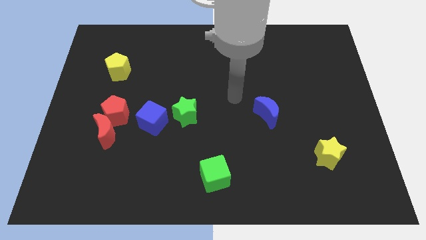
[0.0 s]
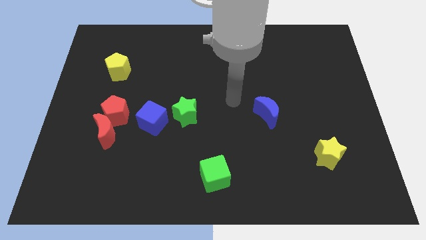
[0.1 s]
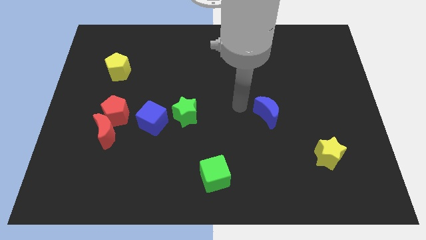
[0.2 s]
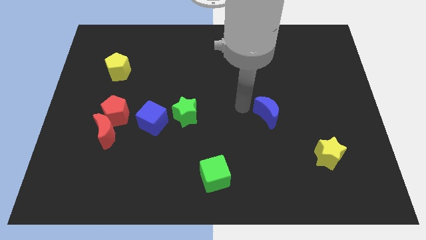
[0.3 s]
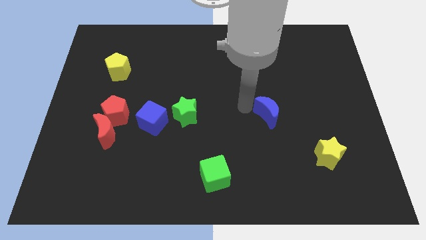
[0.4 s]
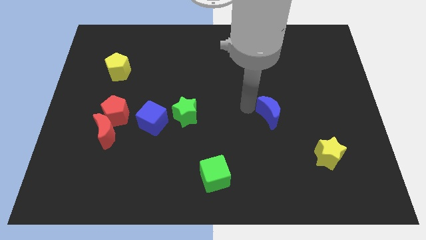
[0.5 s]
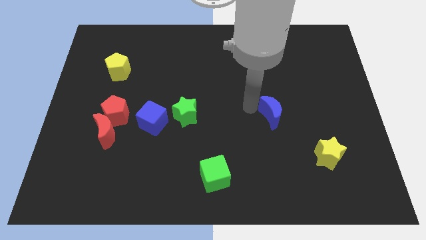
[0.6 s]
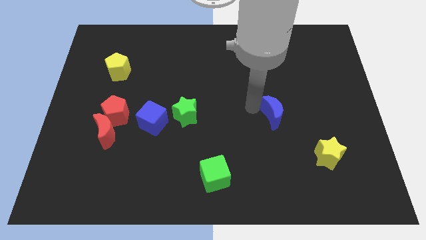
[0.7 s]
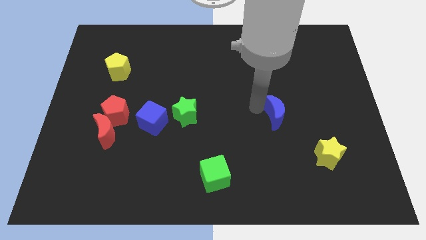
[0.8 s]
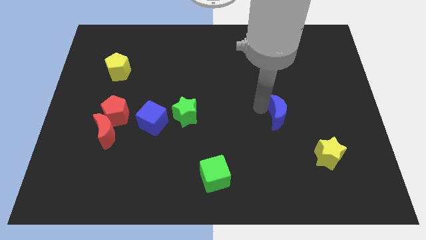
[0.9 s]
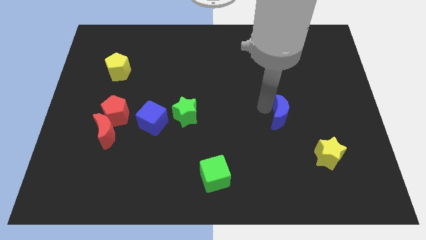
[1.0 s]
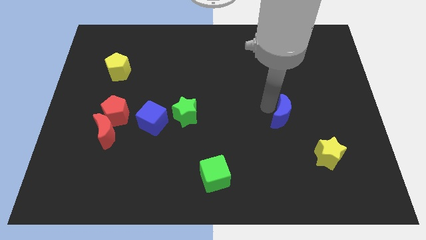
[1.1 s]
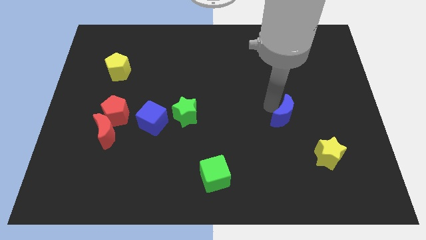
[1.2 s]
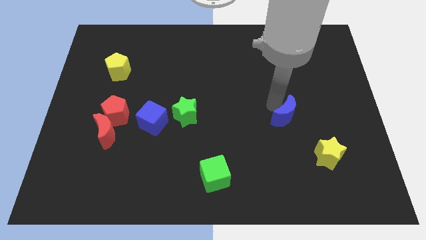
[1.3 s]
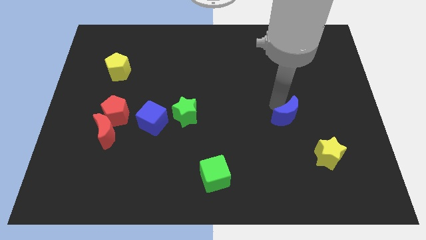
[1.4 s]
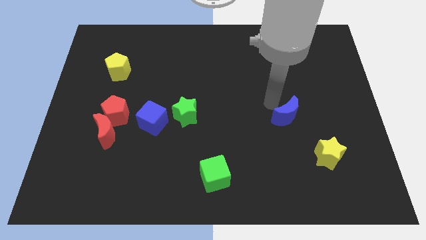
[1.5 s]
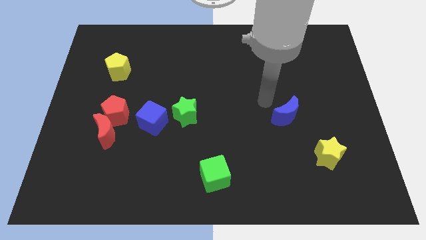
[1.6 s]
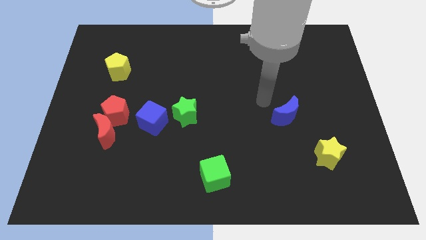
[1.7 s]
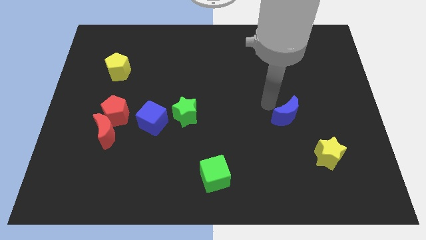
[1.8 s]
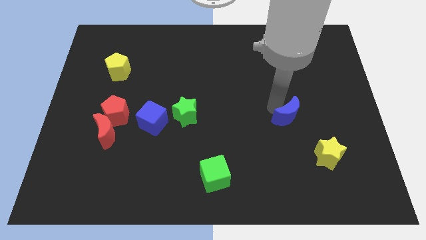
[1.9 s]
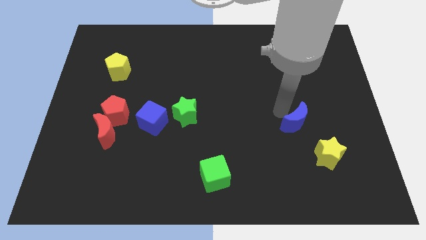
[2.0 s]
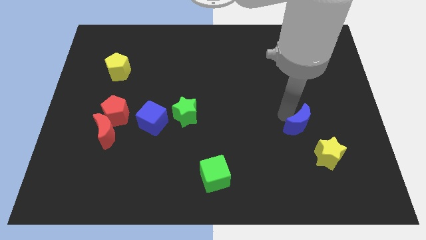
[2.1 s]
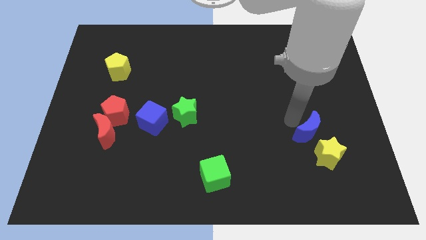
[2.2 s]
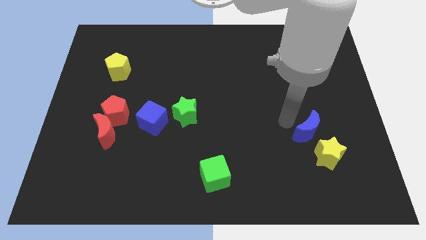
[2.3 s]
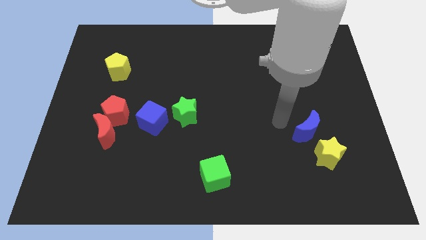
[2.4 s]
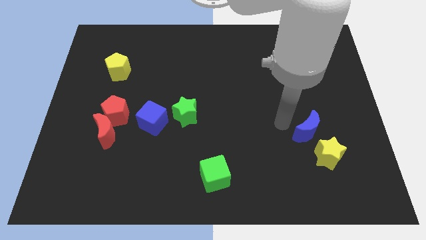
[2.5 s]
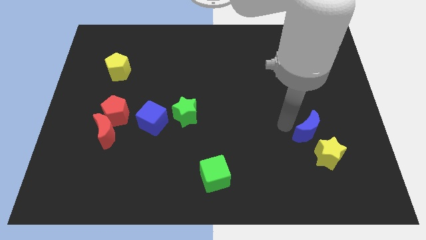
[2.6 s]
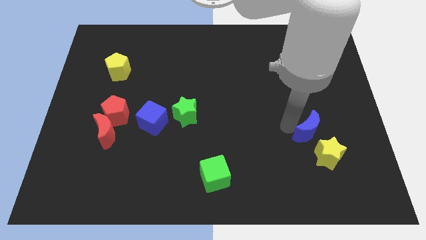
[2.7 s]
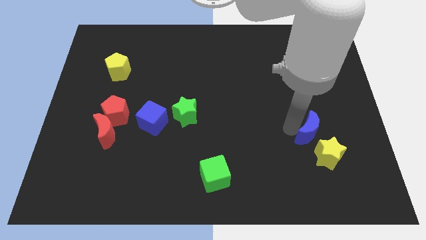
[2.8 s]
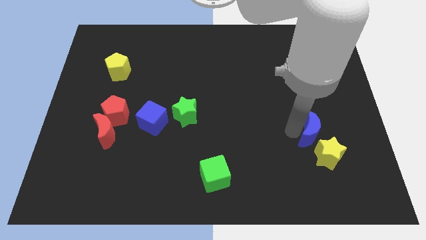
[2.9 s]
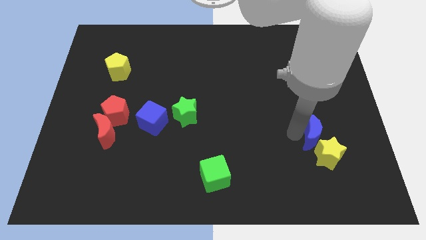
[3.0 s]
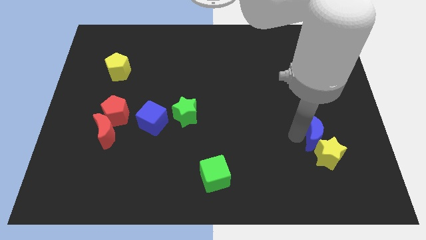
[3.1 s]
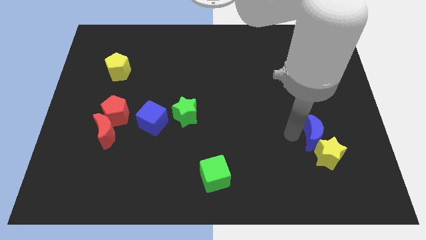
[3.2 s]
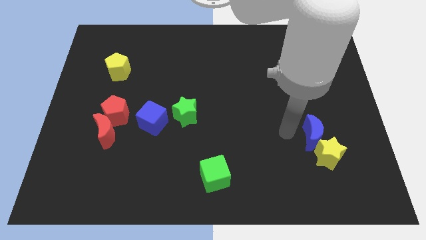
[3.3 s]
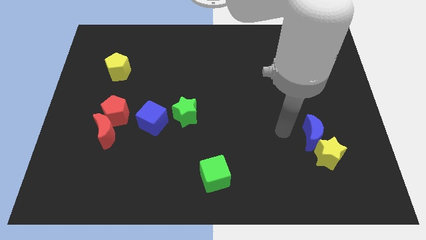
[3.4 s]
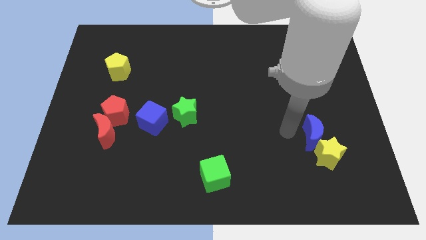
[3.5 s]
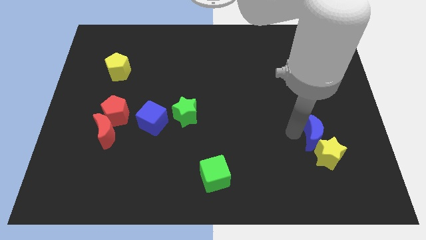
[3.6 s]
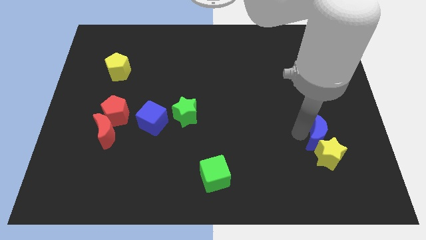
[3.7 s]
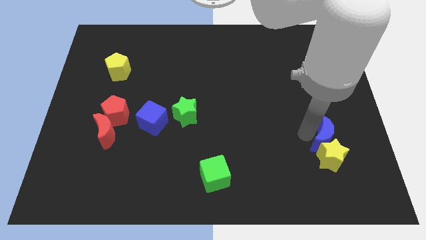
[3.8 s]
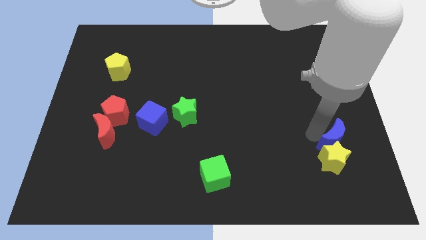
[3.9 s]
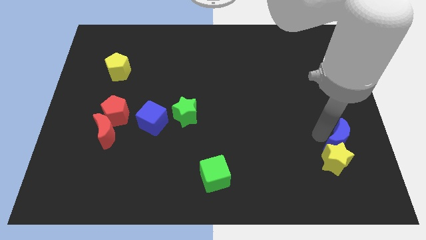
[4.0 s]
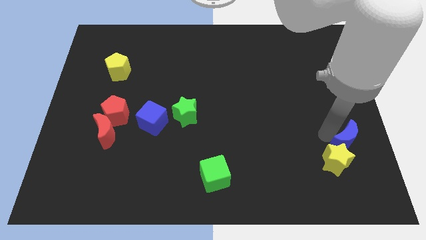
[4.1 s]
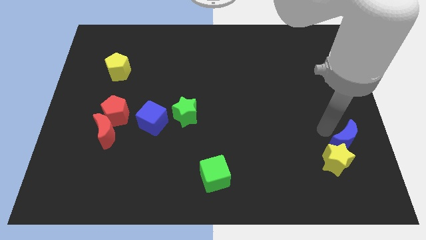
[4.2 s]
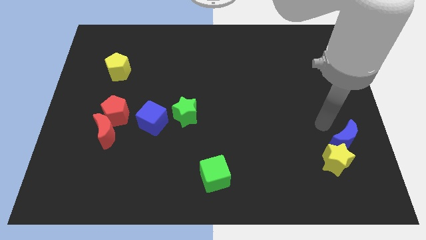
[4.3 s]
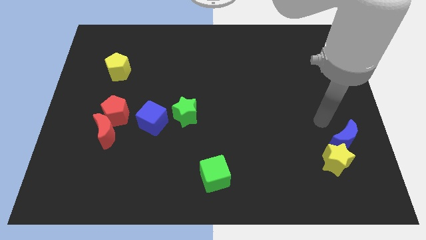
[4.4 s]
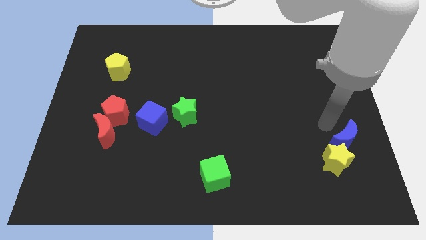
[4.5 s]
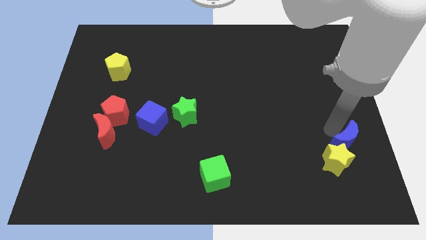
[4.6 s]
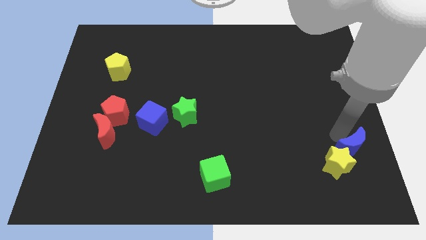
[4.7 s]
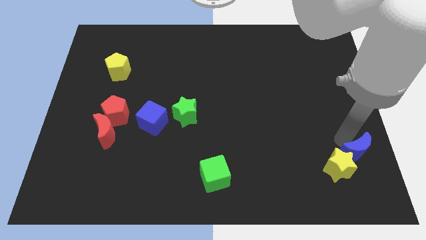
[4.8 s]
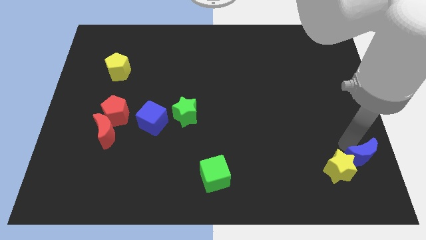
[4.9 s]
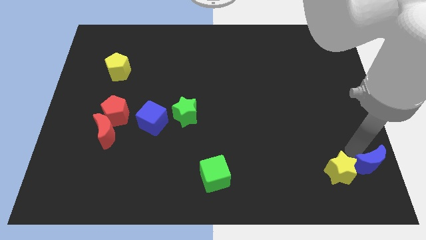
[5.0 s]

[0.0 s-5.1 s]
slide the blue moon to the bottom right of the board
